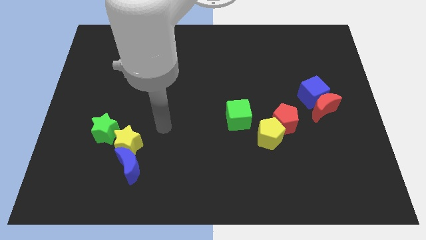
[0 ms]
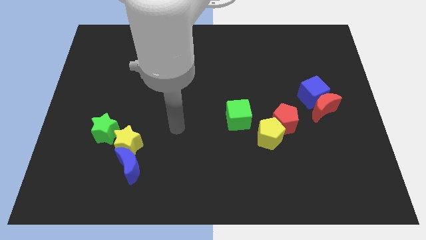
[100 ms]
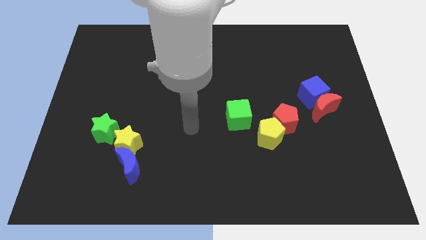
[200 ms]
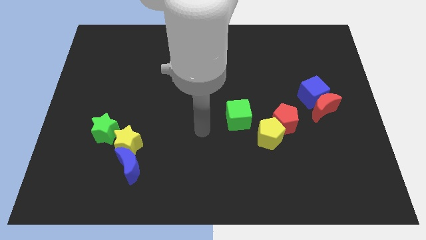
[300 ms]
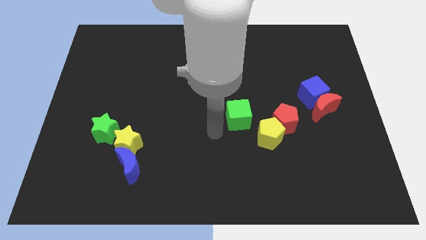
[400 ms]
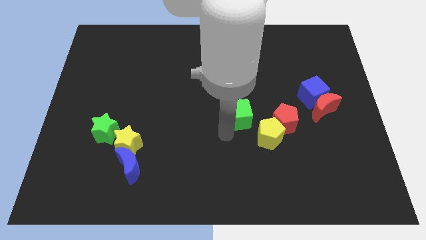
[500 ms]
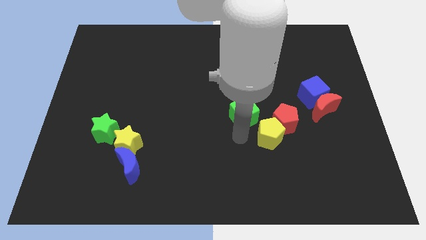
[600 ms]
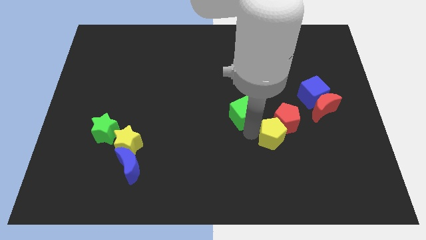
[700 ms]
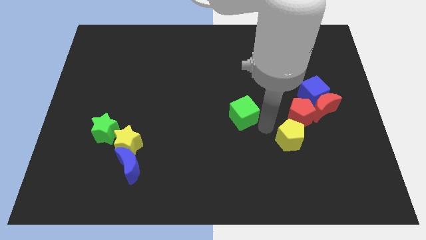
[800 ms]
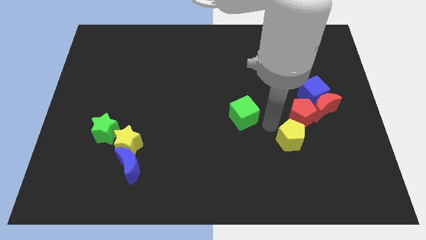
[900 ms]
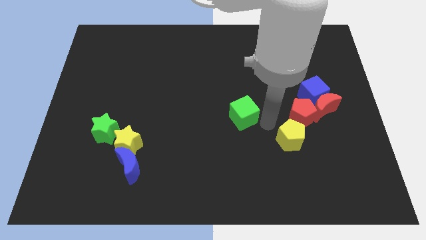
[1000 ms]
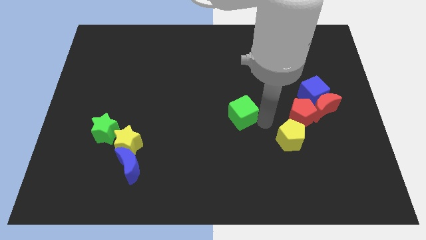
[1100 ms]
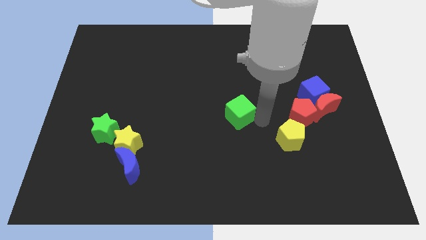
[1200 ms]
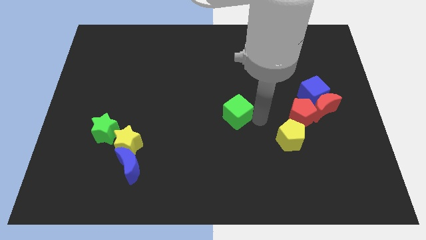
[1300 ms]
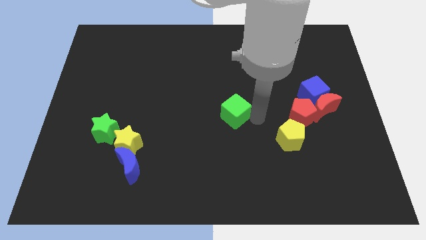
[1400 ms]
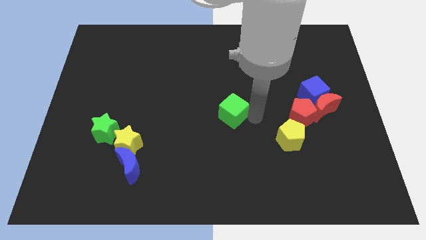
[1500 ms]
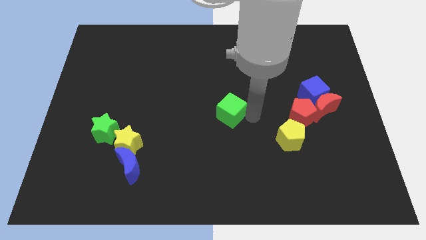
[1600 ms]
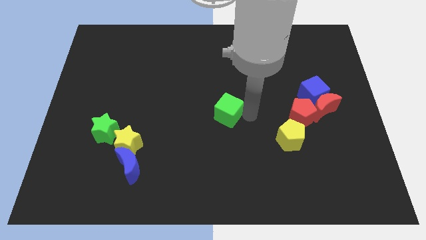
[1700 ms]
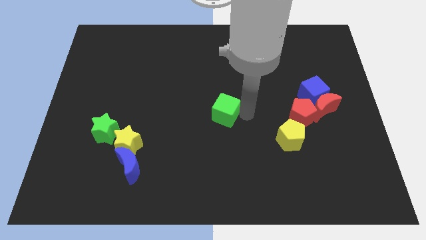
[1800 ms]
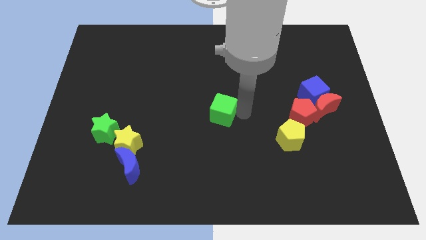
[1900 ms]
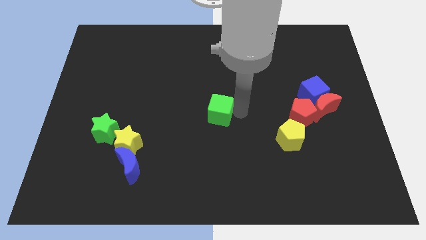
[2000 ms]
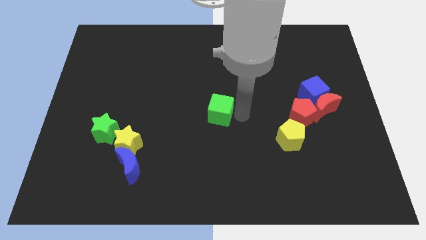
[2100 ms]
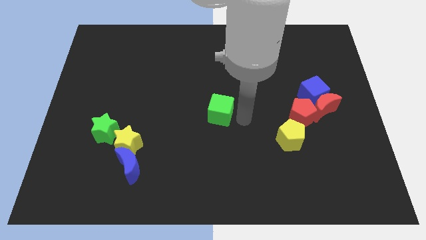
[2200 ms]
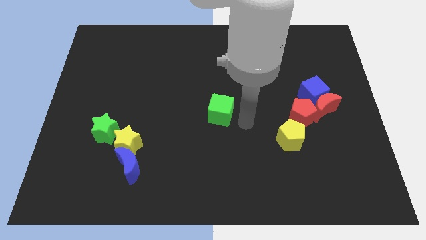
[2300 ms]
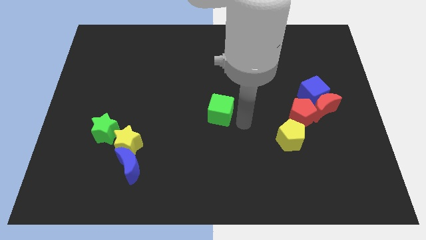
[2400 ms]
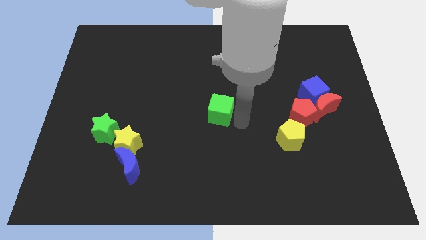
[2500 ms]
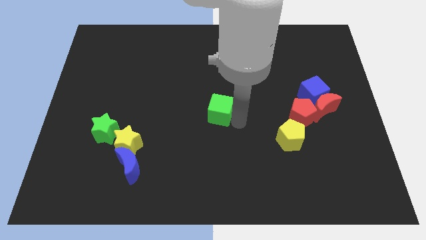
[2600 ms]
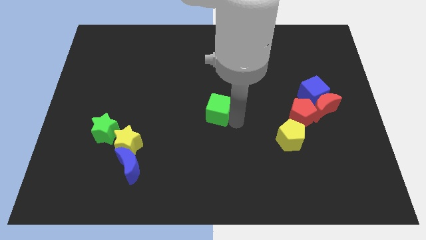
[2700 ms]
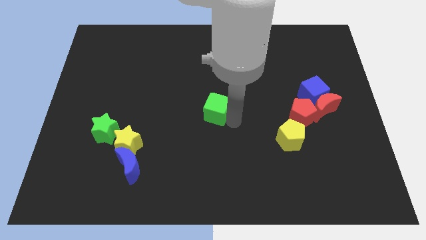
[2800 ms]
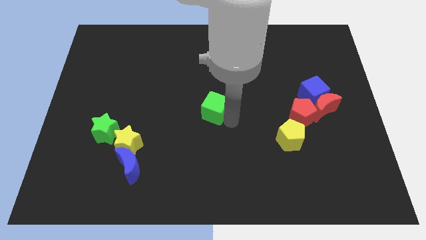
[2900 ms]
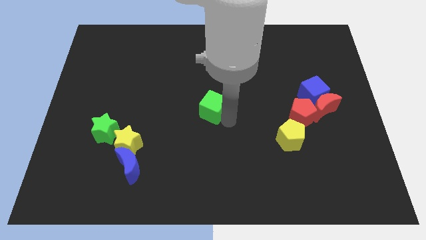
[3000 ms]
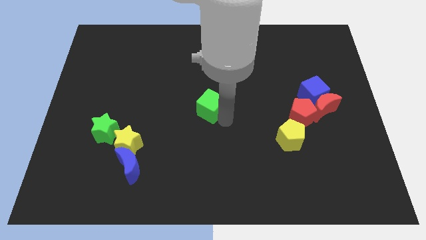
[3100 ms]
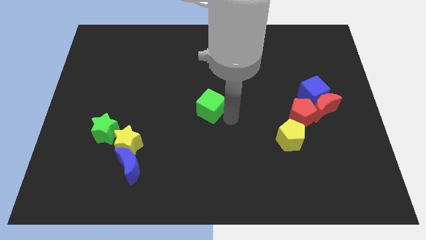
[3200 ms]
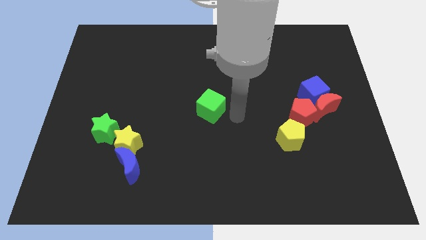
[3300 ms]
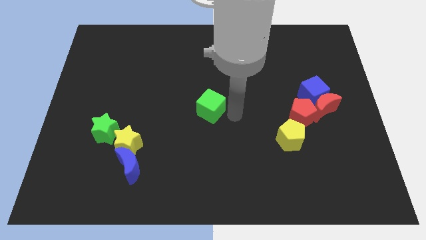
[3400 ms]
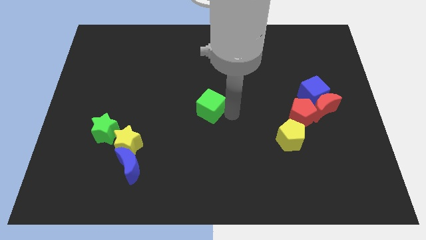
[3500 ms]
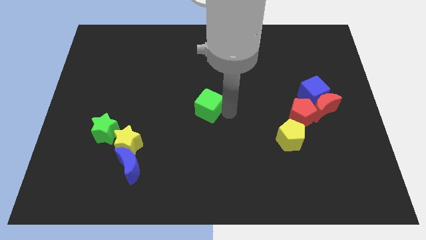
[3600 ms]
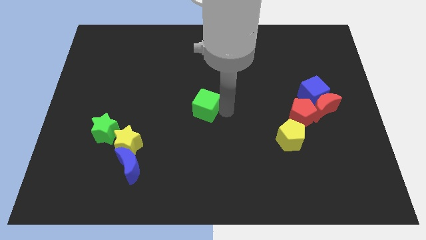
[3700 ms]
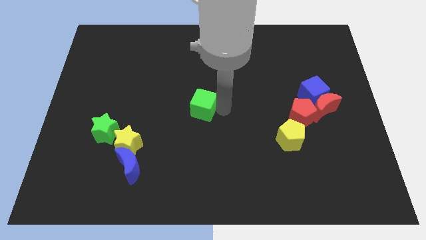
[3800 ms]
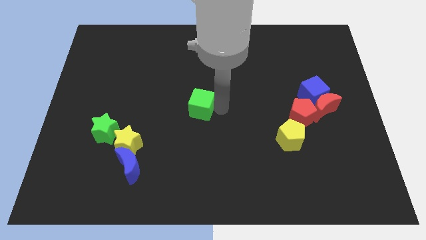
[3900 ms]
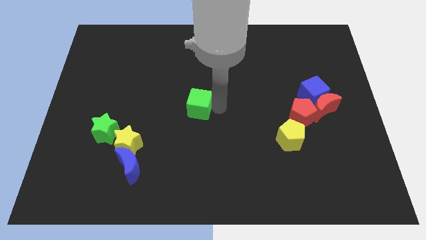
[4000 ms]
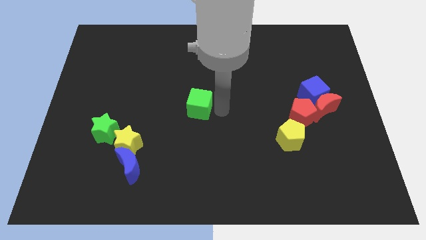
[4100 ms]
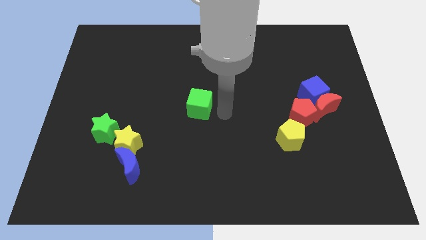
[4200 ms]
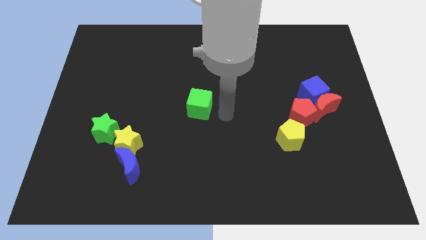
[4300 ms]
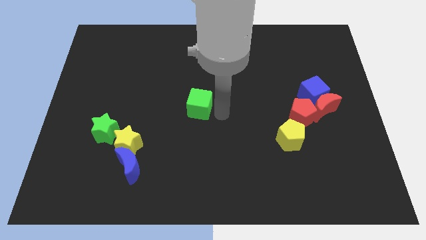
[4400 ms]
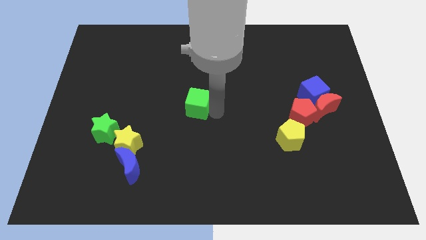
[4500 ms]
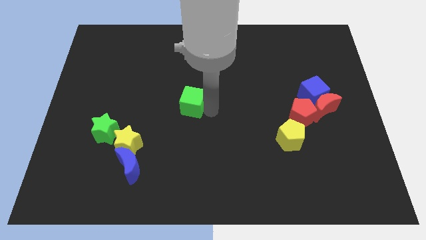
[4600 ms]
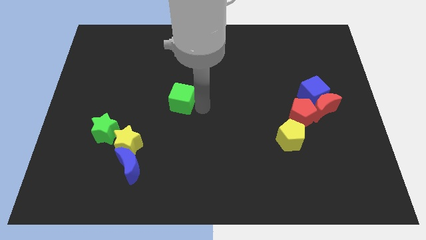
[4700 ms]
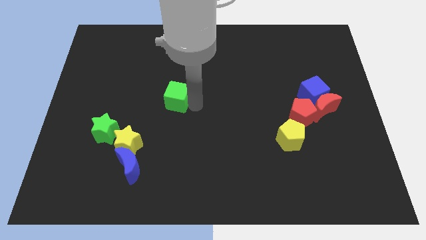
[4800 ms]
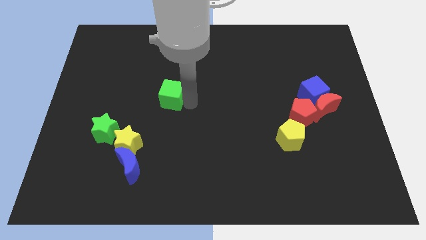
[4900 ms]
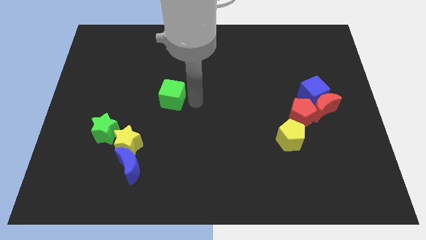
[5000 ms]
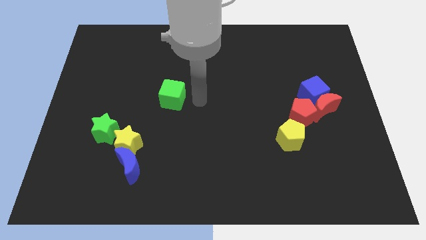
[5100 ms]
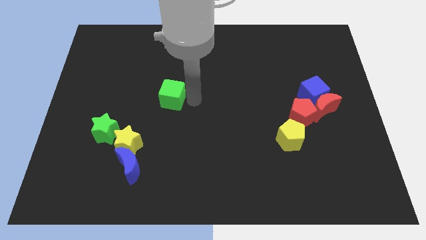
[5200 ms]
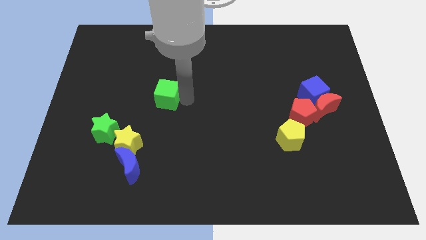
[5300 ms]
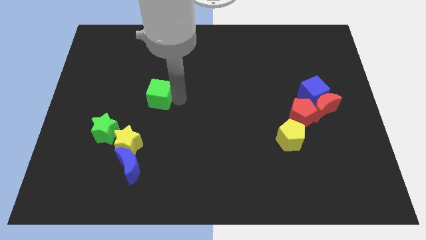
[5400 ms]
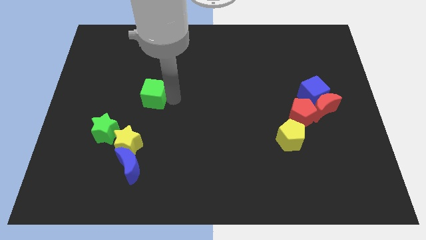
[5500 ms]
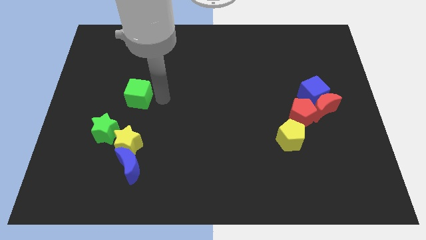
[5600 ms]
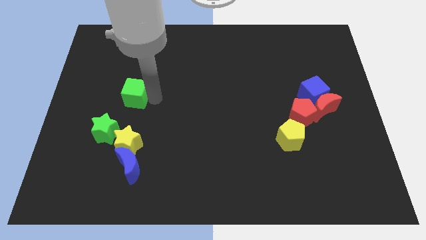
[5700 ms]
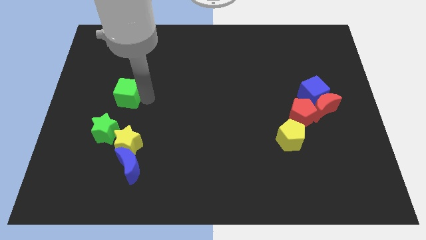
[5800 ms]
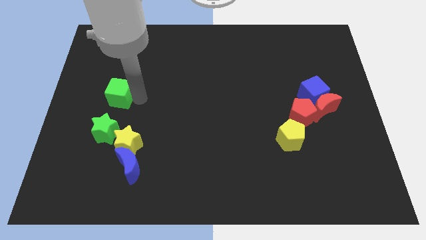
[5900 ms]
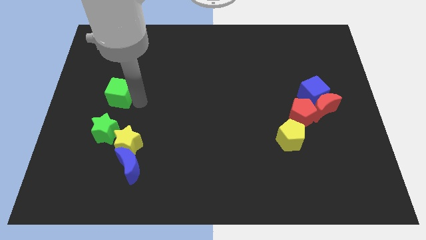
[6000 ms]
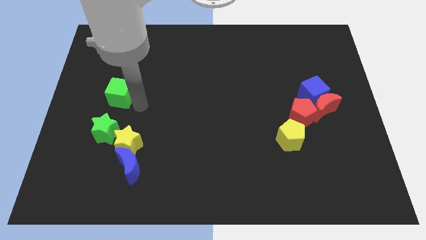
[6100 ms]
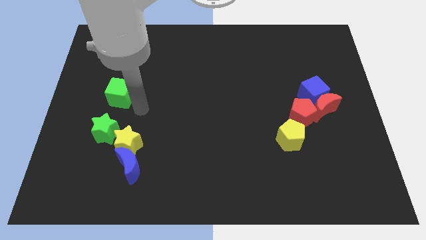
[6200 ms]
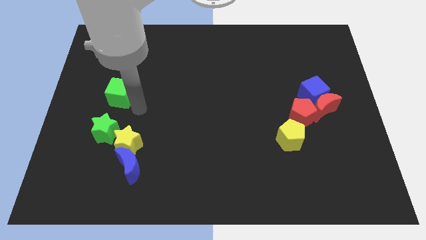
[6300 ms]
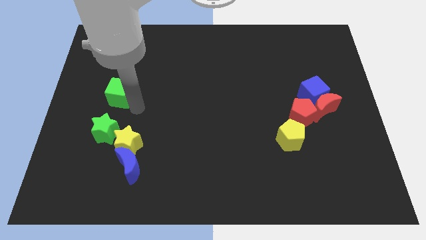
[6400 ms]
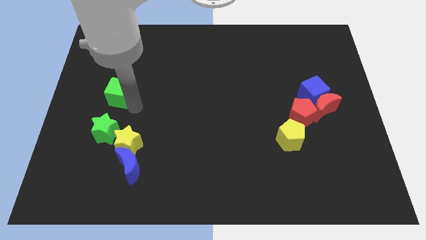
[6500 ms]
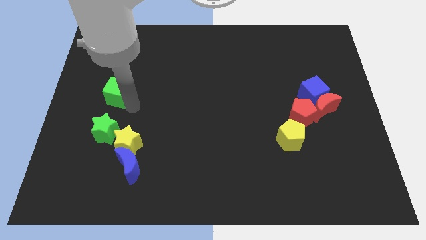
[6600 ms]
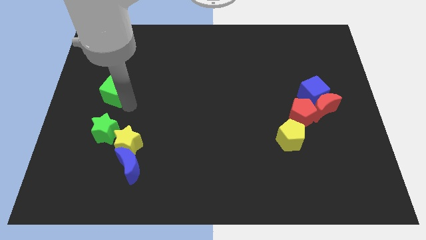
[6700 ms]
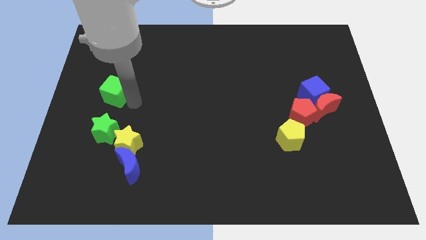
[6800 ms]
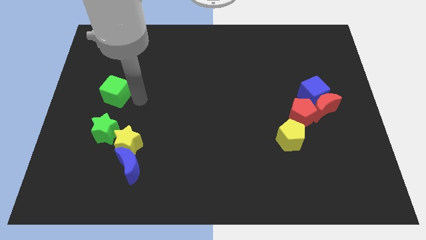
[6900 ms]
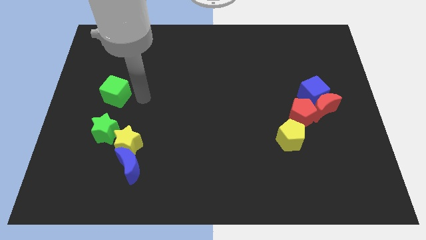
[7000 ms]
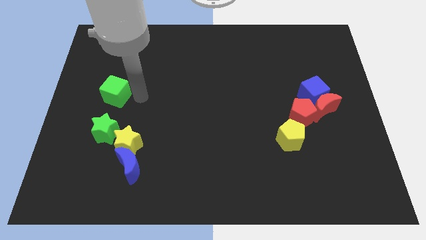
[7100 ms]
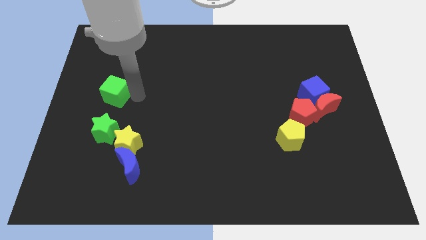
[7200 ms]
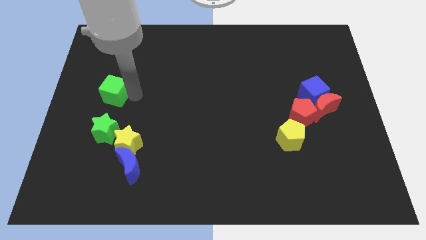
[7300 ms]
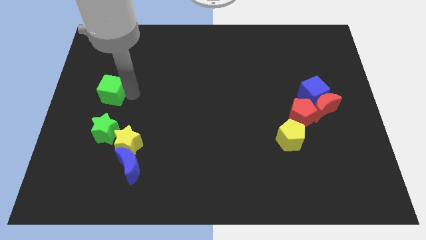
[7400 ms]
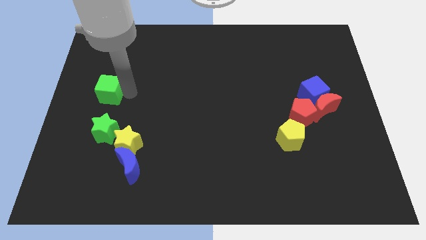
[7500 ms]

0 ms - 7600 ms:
push the green cube to the left side of the board
